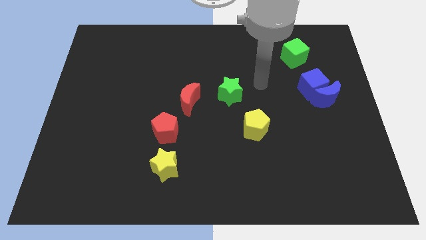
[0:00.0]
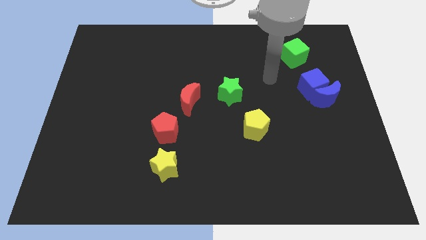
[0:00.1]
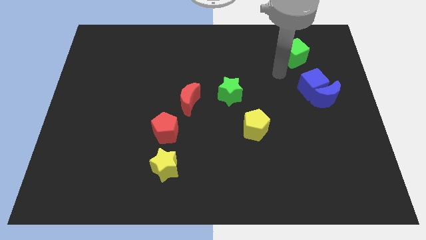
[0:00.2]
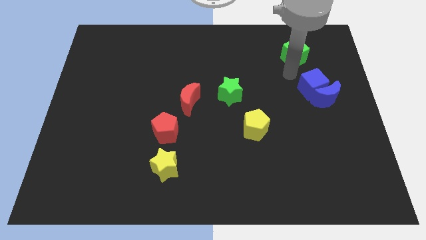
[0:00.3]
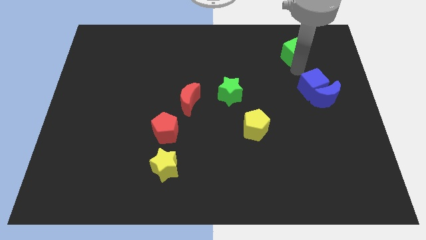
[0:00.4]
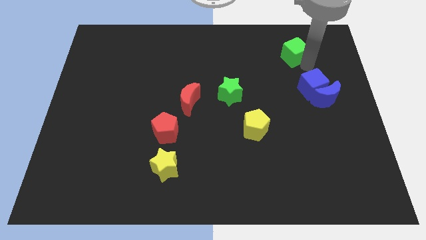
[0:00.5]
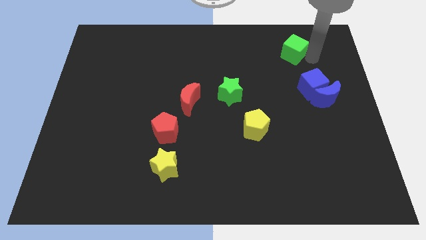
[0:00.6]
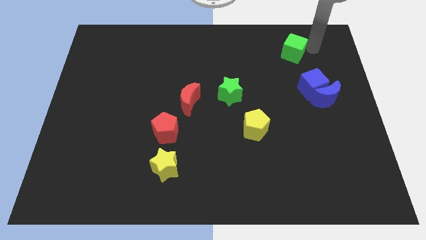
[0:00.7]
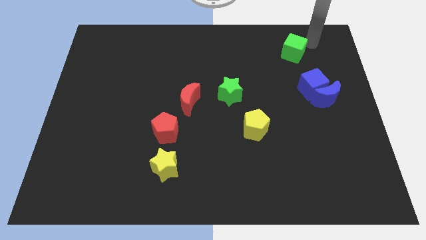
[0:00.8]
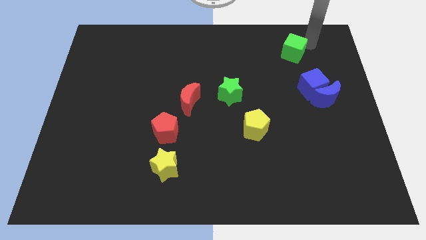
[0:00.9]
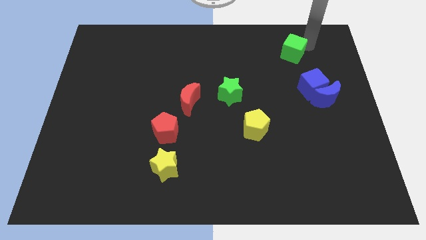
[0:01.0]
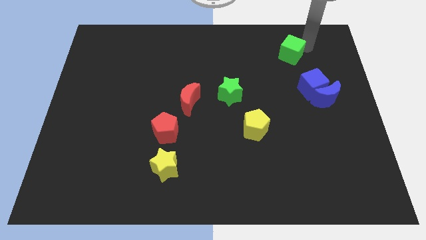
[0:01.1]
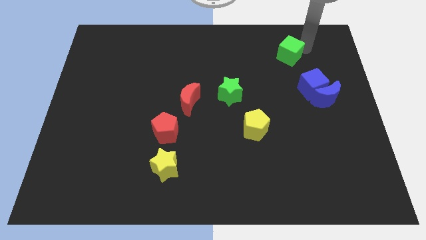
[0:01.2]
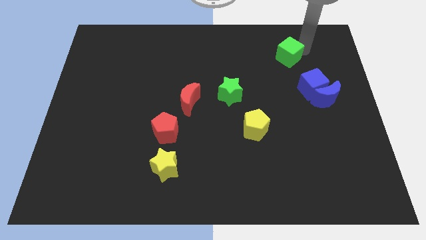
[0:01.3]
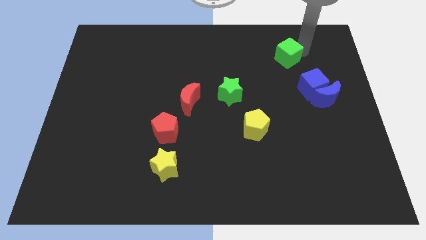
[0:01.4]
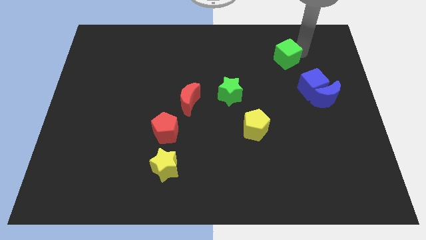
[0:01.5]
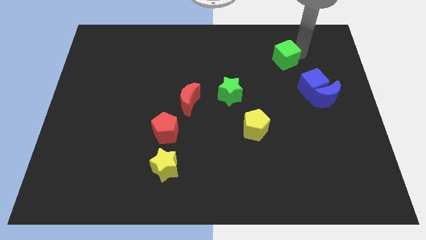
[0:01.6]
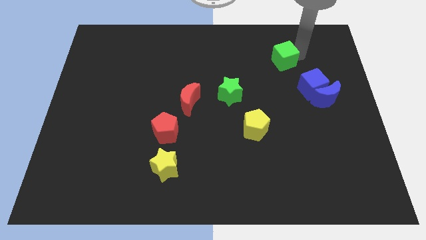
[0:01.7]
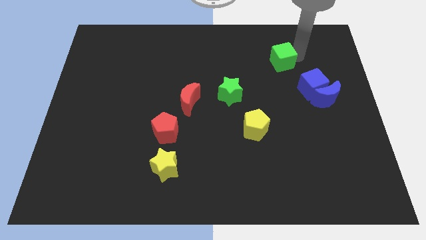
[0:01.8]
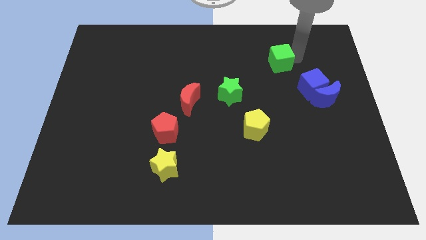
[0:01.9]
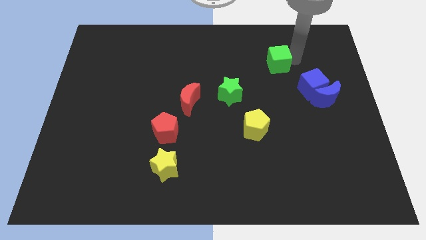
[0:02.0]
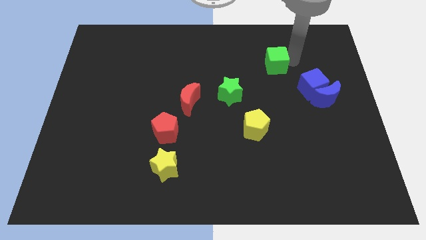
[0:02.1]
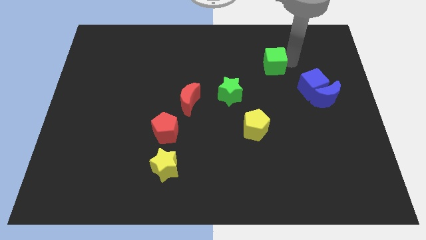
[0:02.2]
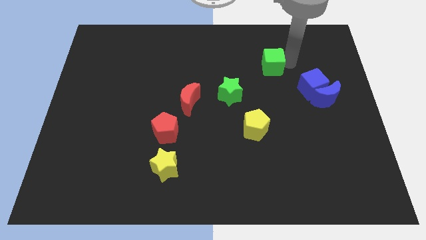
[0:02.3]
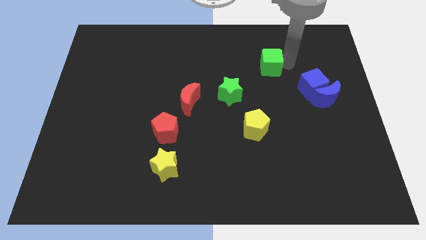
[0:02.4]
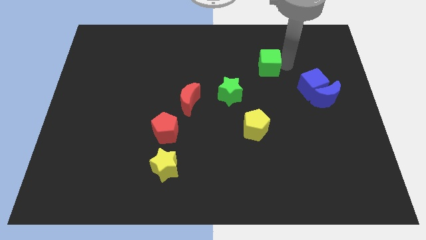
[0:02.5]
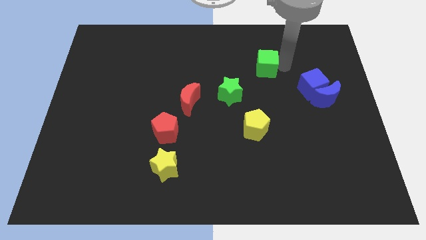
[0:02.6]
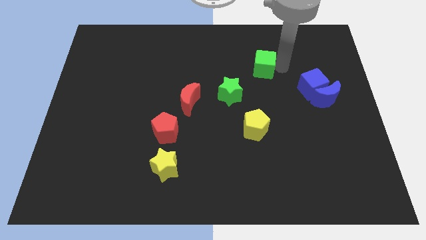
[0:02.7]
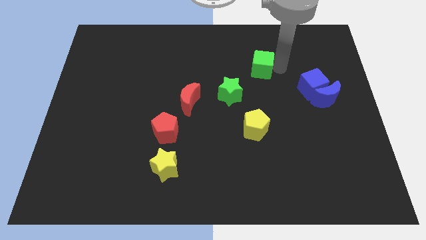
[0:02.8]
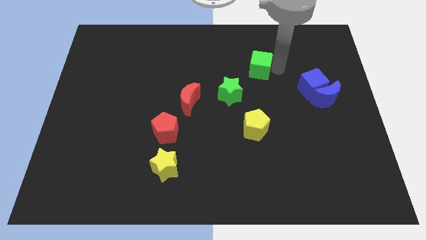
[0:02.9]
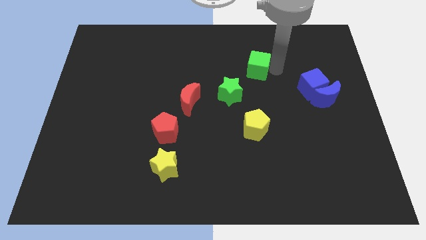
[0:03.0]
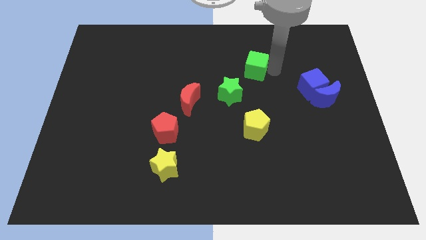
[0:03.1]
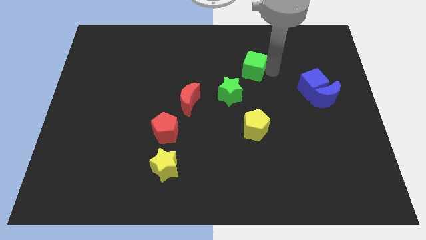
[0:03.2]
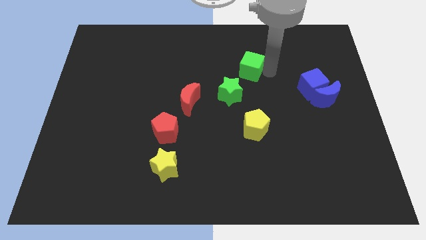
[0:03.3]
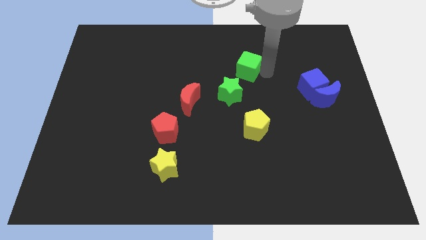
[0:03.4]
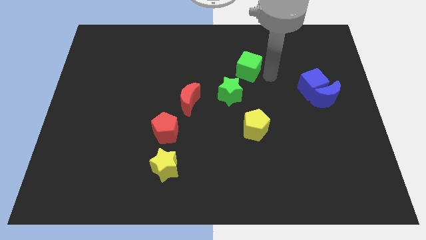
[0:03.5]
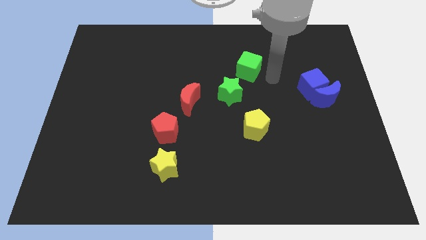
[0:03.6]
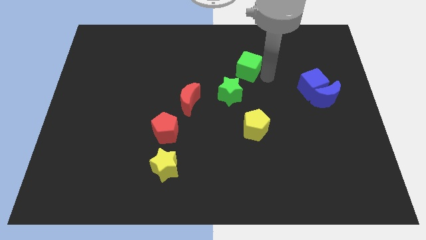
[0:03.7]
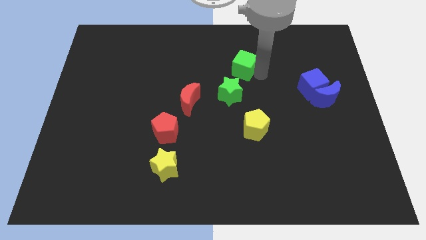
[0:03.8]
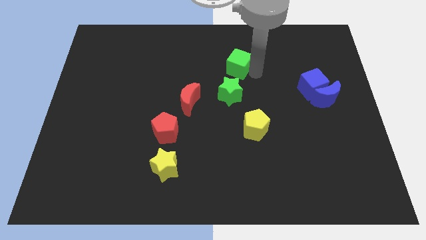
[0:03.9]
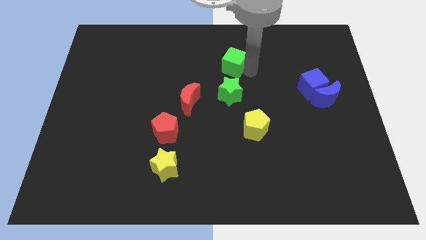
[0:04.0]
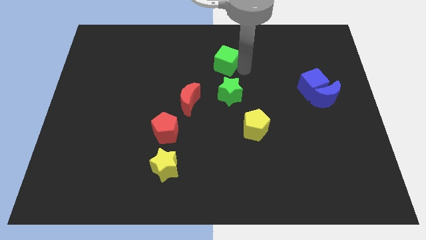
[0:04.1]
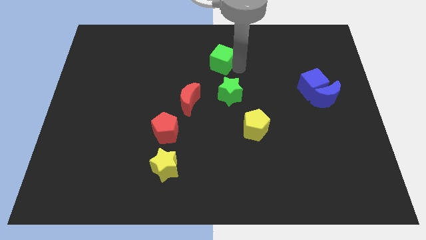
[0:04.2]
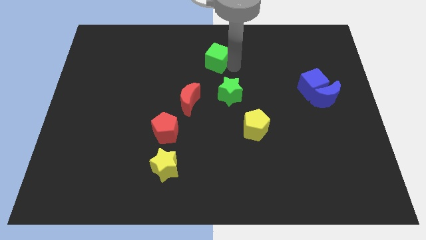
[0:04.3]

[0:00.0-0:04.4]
push the green cube left

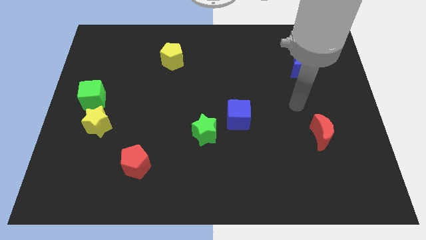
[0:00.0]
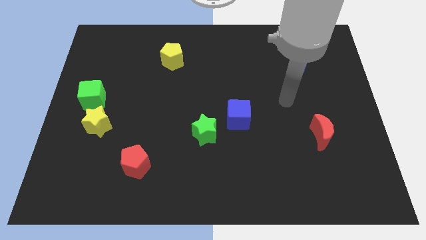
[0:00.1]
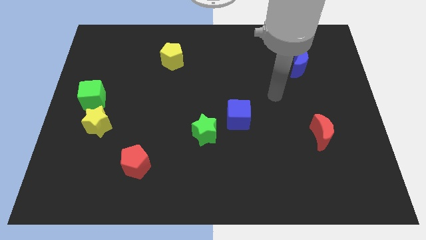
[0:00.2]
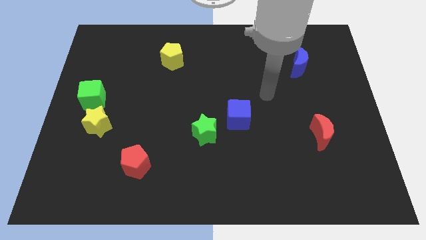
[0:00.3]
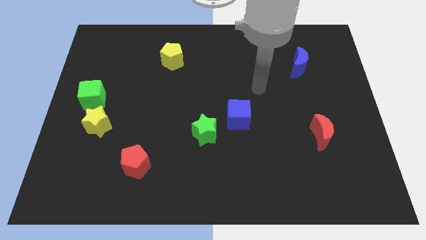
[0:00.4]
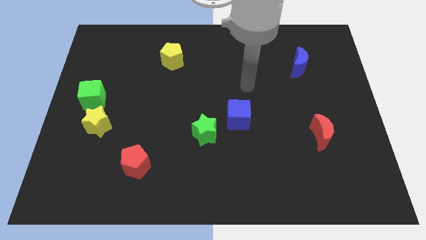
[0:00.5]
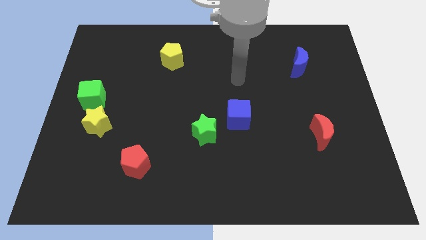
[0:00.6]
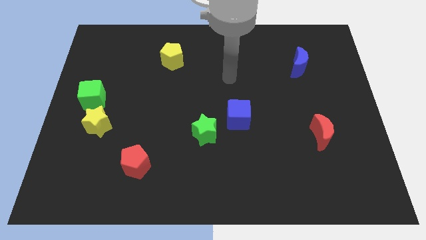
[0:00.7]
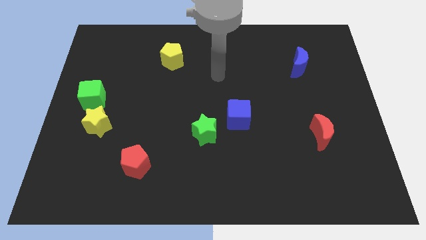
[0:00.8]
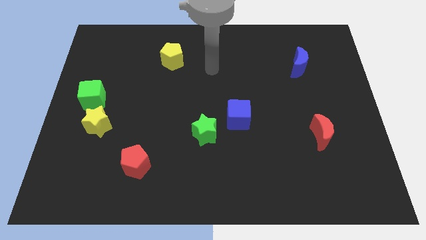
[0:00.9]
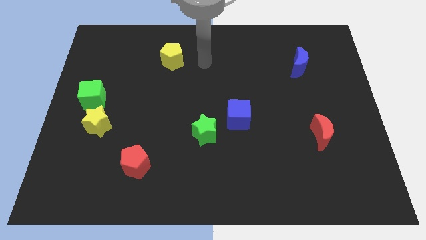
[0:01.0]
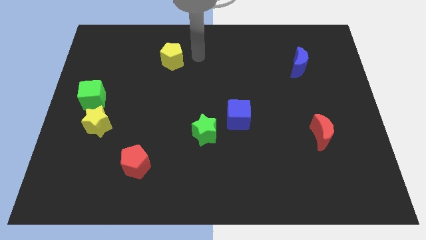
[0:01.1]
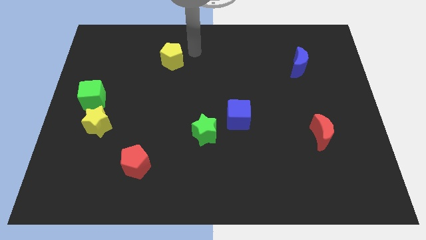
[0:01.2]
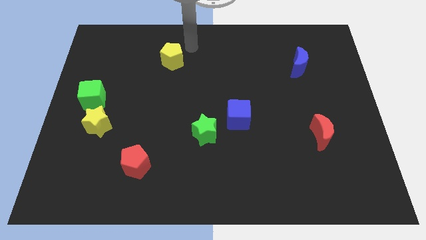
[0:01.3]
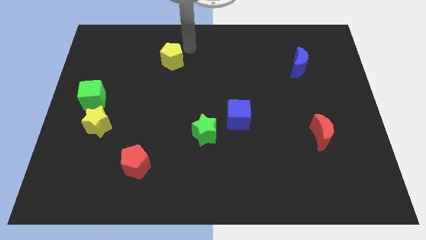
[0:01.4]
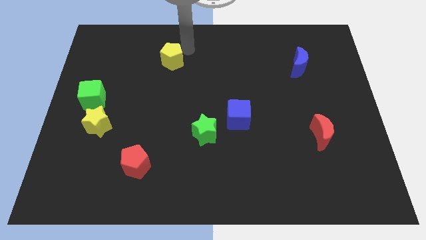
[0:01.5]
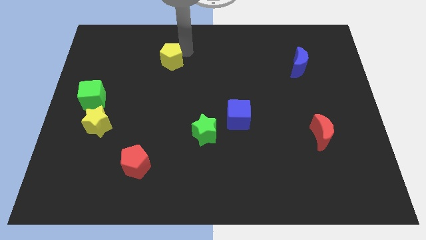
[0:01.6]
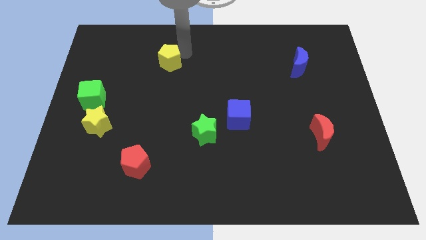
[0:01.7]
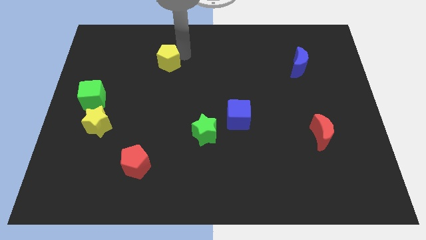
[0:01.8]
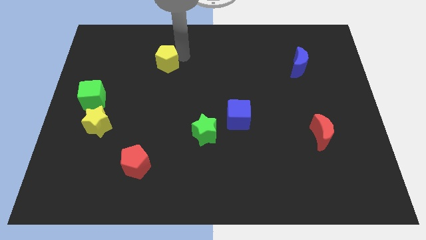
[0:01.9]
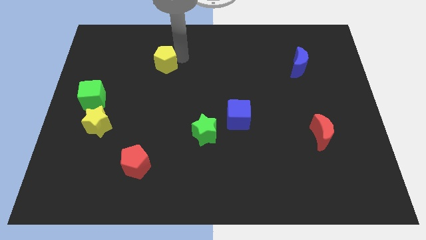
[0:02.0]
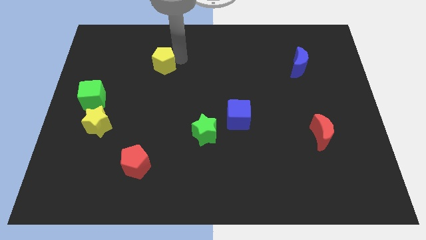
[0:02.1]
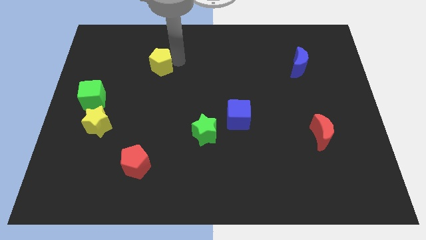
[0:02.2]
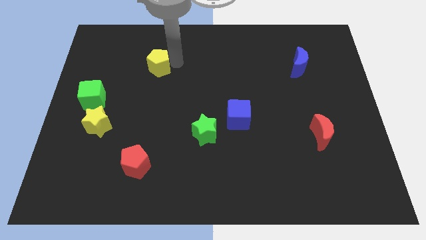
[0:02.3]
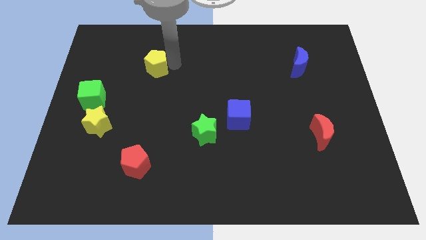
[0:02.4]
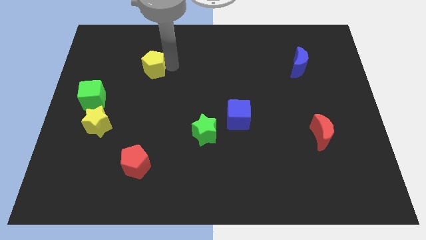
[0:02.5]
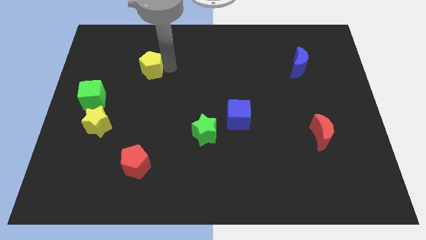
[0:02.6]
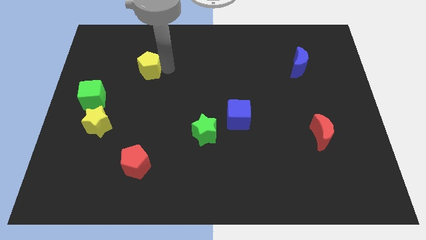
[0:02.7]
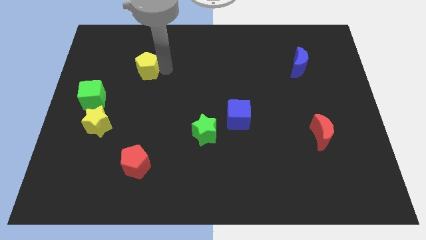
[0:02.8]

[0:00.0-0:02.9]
slide the yellow pentagon a little down and to the left

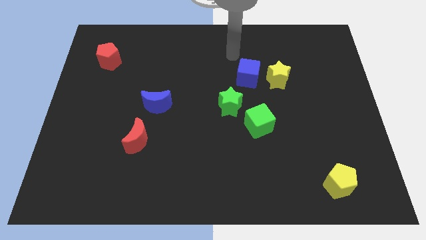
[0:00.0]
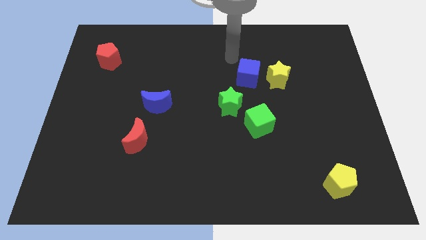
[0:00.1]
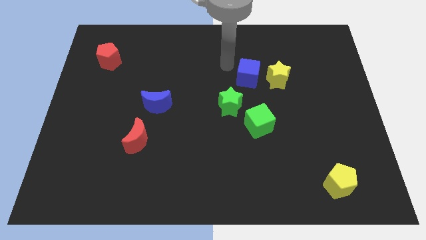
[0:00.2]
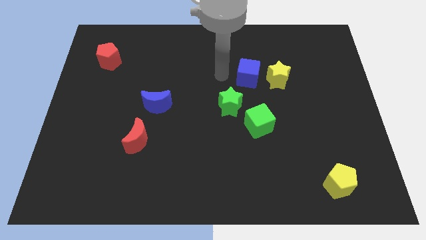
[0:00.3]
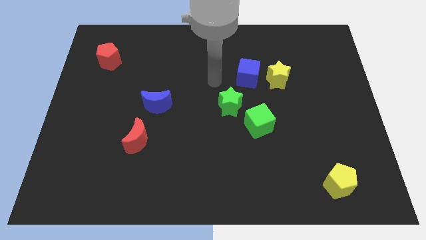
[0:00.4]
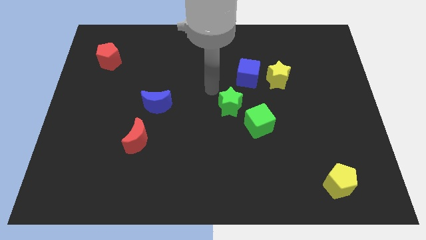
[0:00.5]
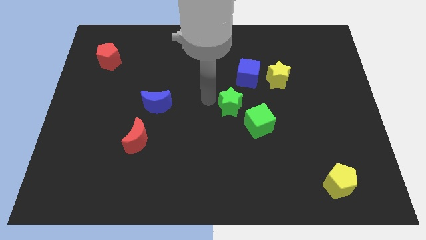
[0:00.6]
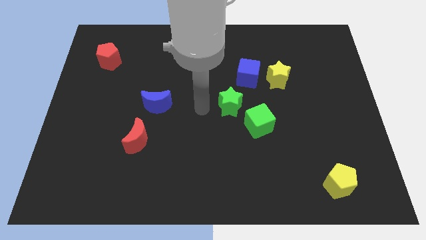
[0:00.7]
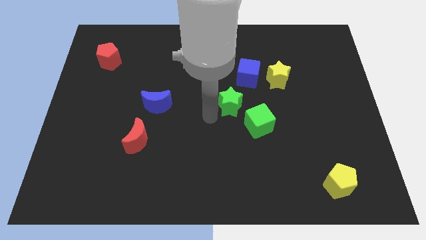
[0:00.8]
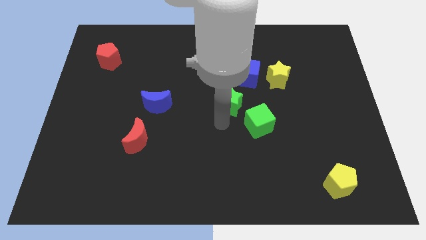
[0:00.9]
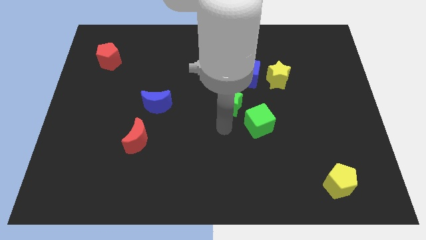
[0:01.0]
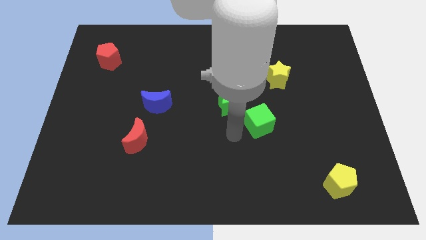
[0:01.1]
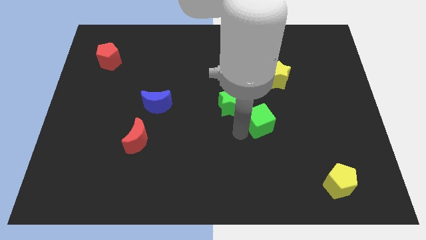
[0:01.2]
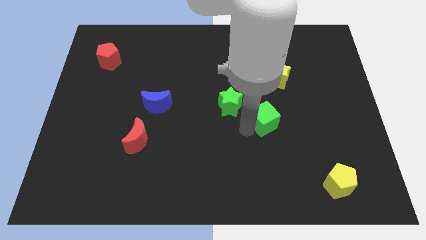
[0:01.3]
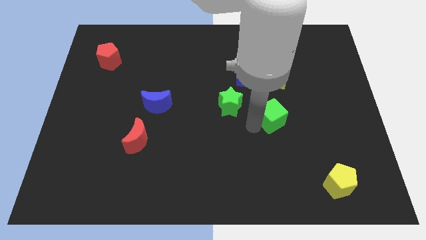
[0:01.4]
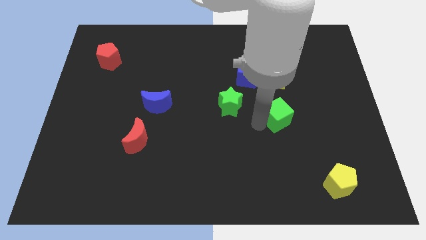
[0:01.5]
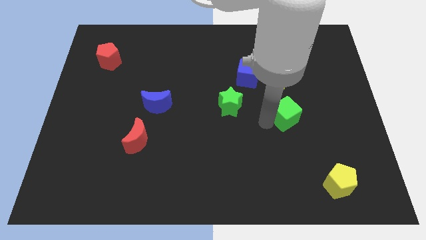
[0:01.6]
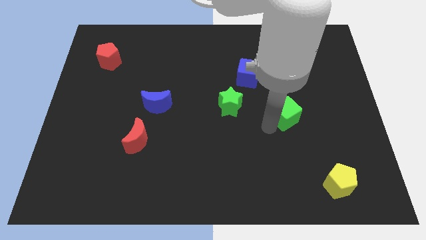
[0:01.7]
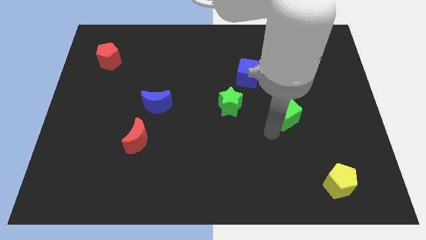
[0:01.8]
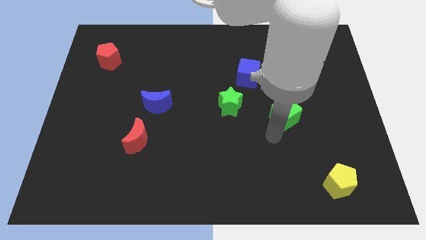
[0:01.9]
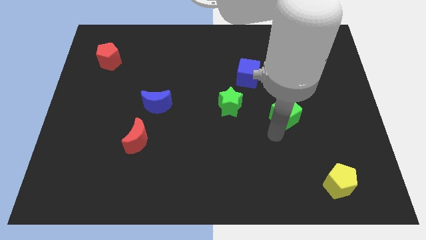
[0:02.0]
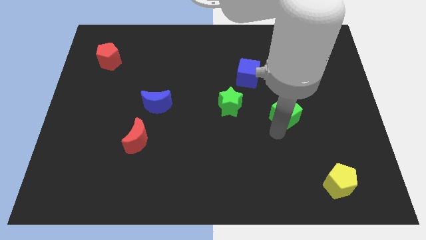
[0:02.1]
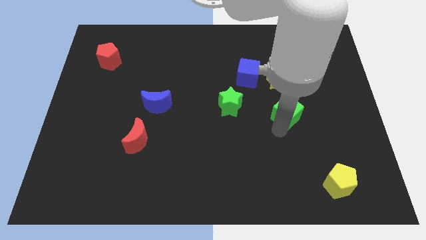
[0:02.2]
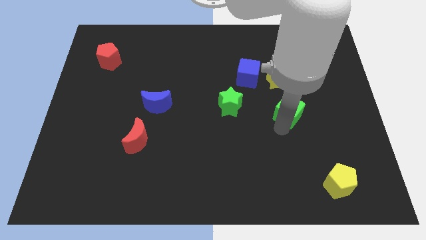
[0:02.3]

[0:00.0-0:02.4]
slightly move the green cube up and right
